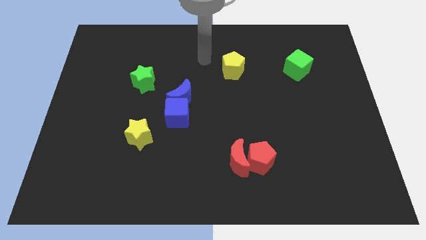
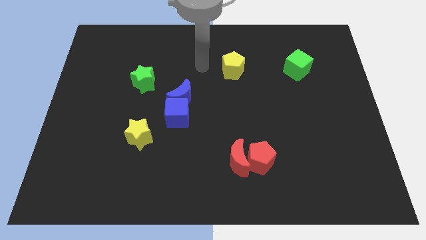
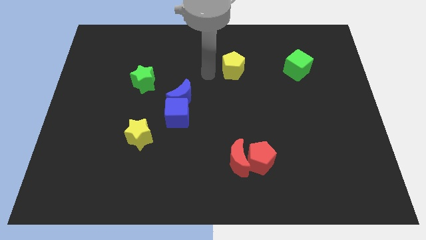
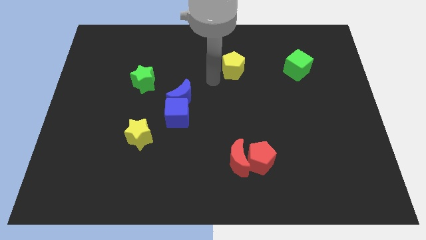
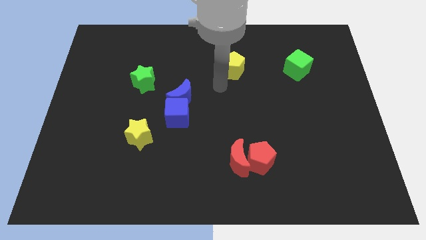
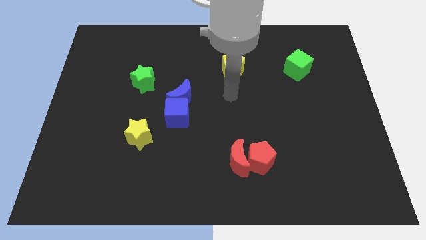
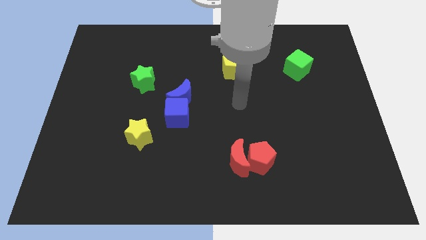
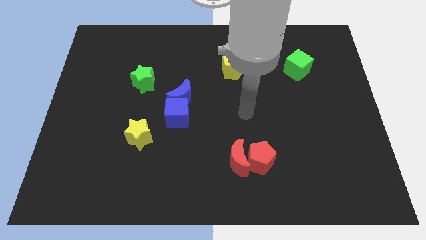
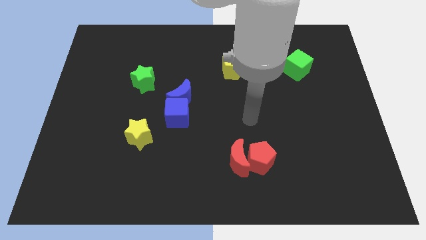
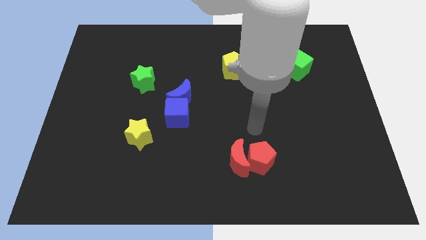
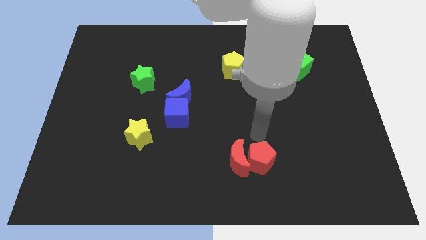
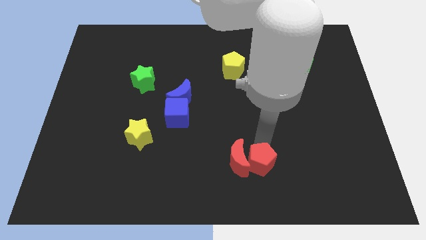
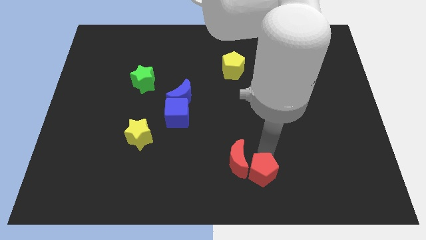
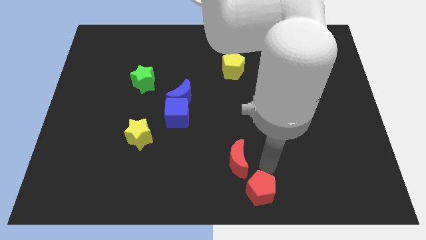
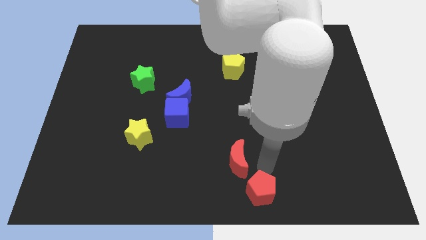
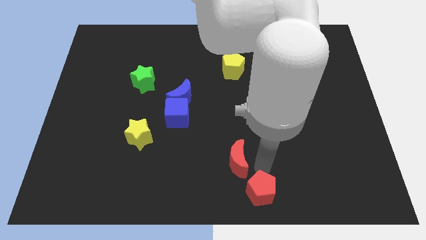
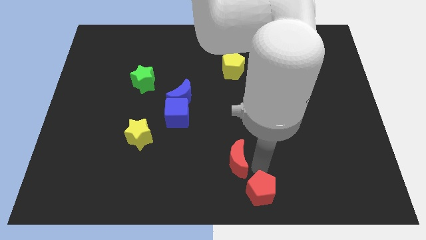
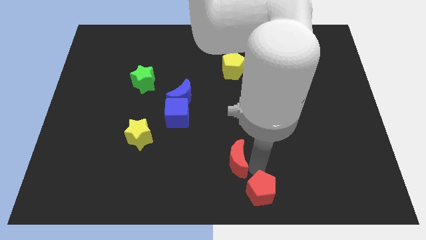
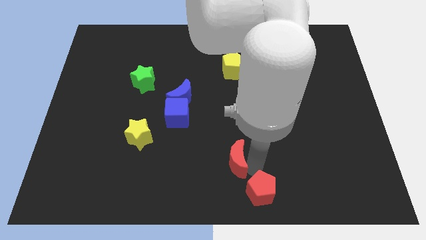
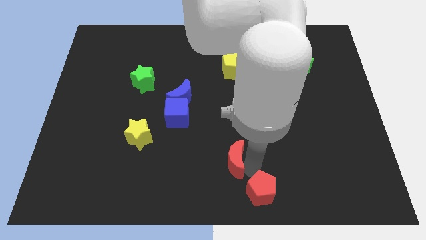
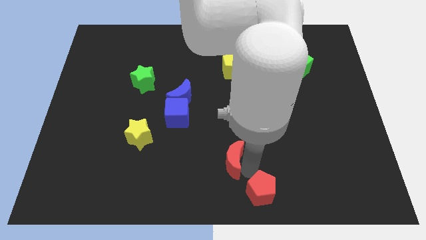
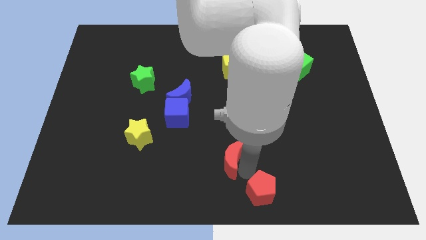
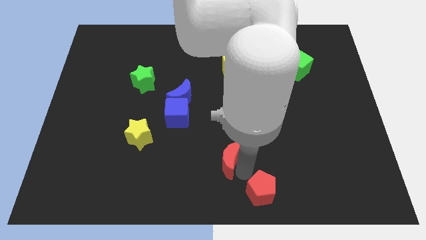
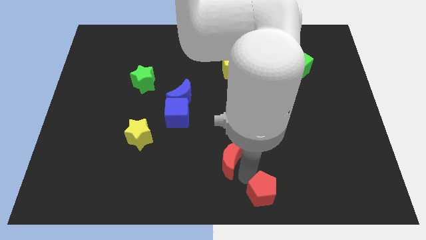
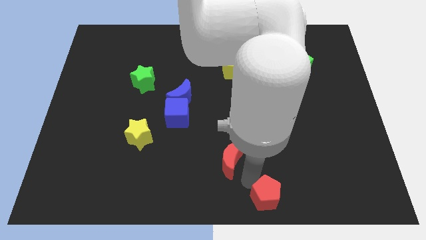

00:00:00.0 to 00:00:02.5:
move the red moon away from the red pentagon

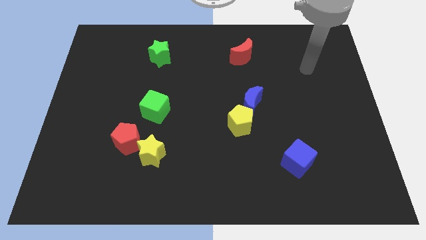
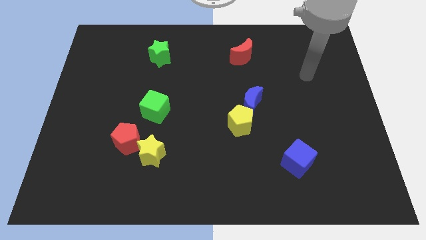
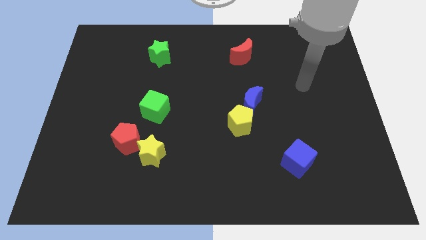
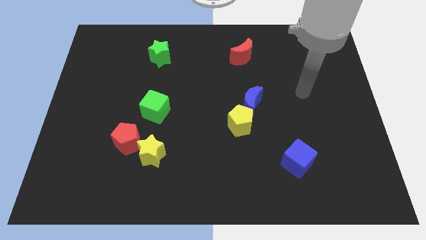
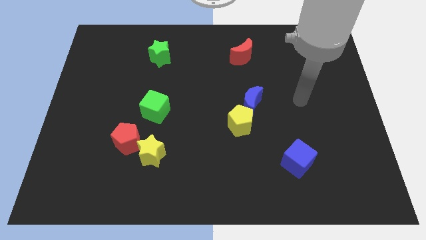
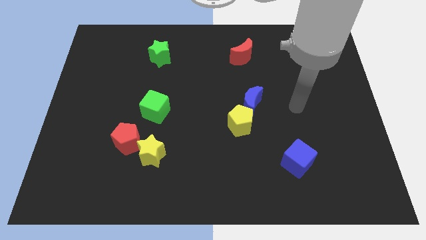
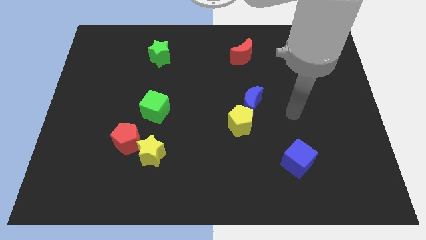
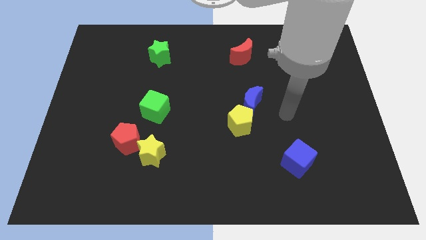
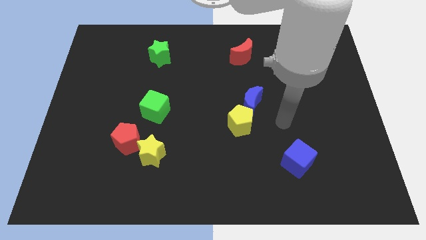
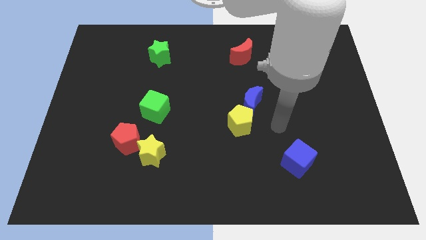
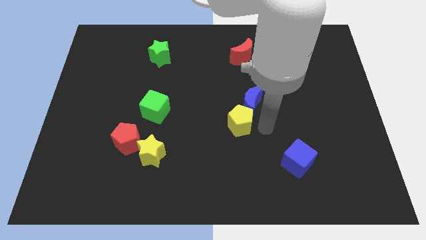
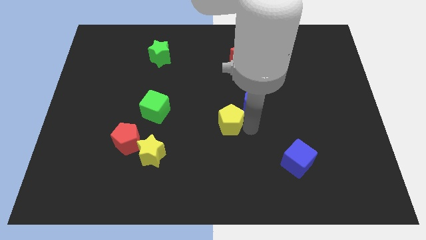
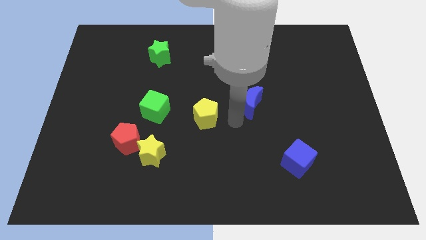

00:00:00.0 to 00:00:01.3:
separate the blue moon from the yellow pentagon

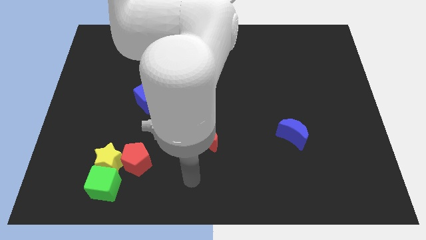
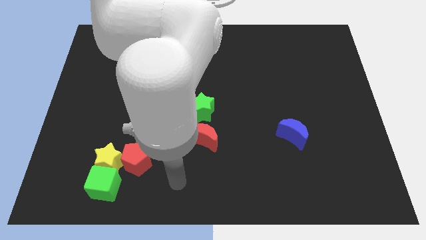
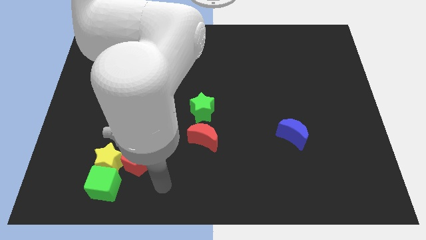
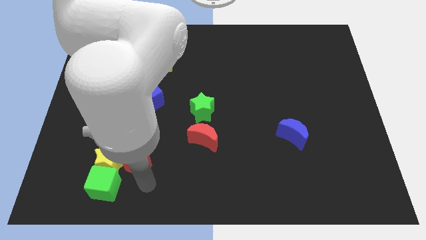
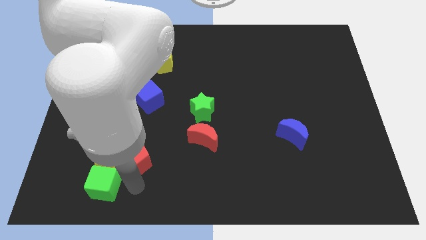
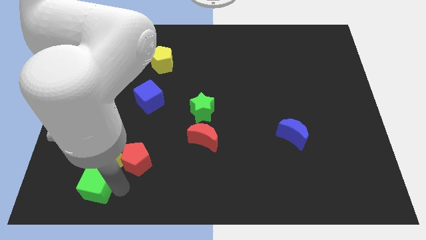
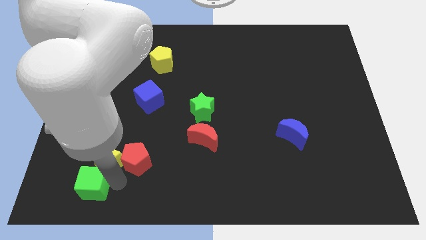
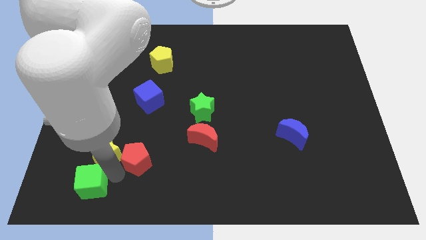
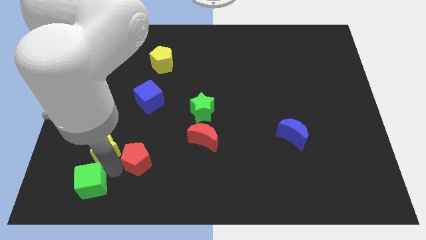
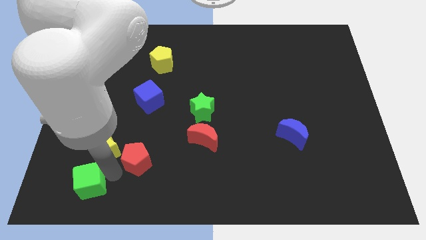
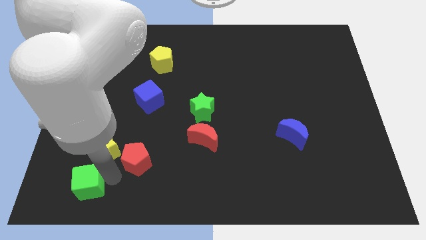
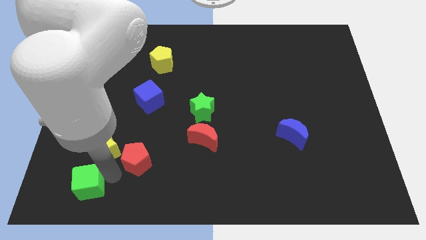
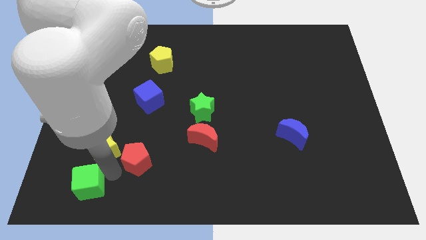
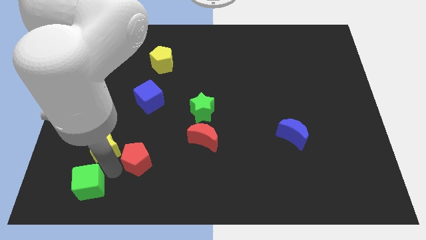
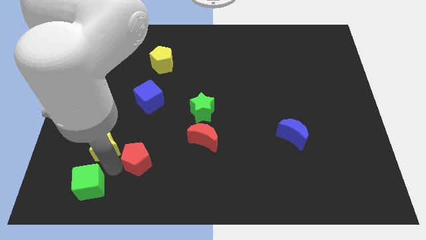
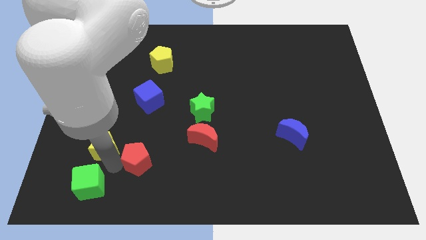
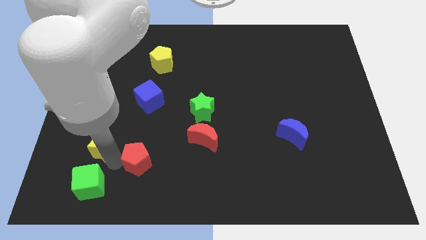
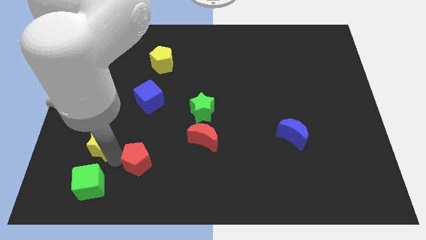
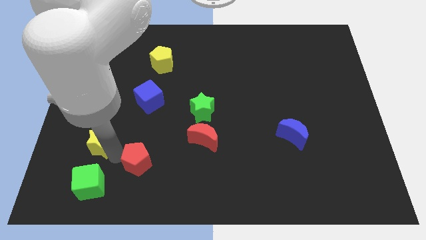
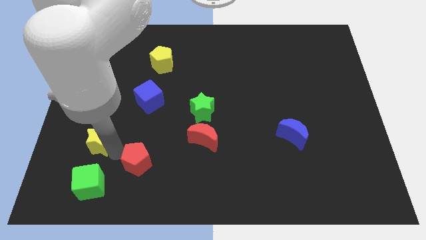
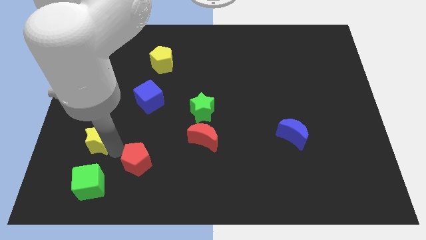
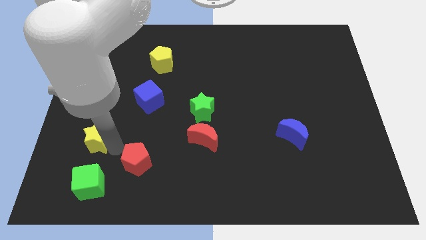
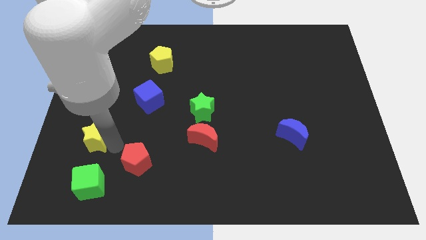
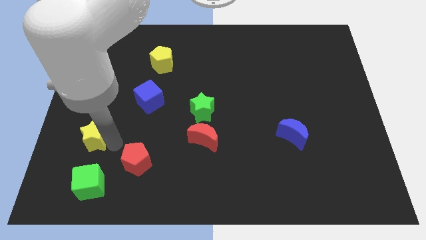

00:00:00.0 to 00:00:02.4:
move the yellow star away from the red pentagon and green cube

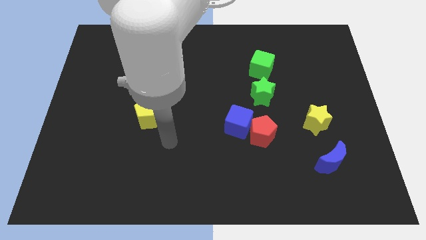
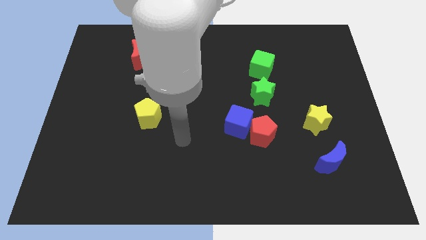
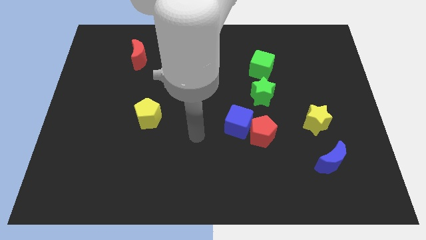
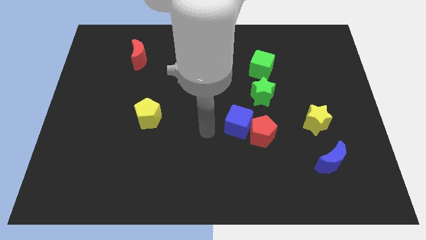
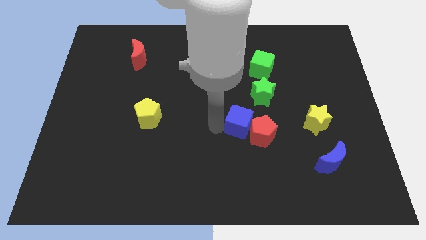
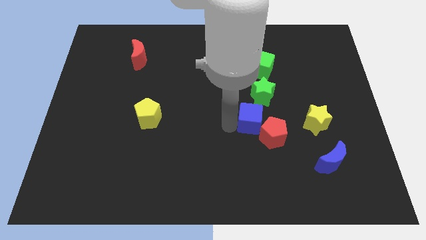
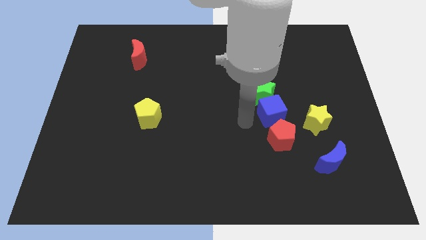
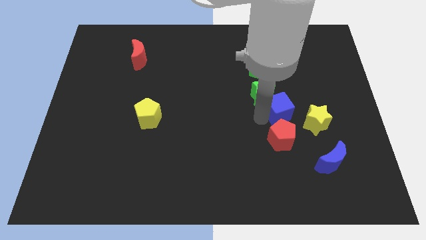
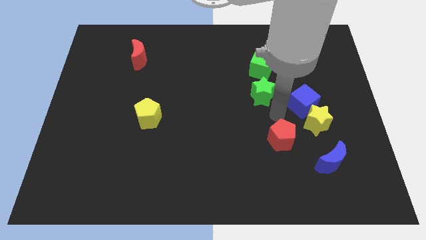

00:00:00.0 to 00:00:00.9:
pull the red pentagon apart from the blue cube

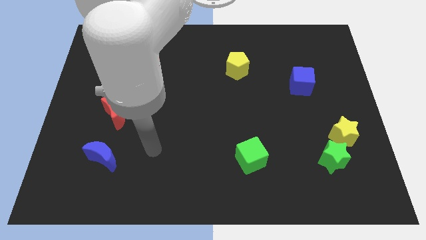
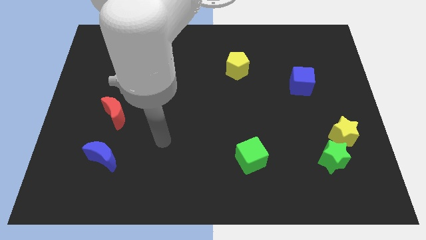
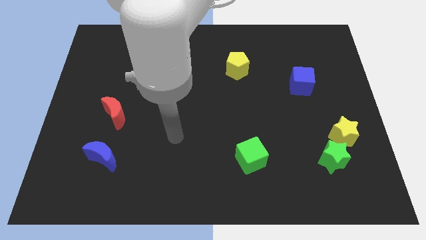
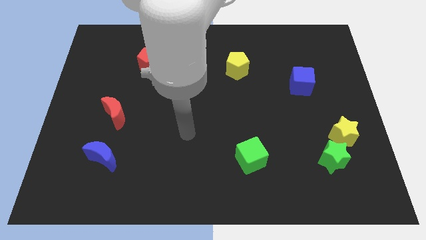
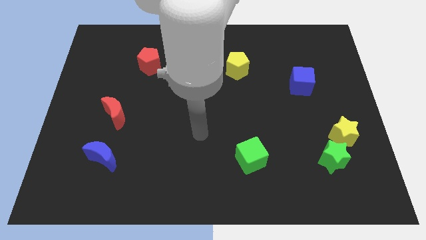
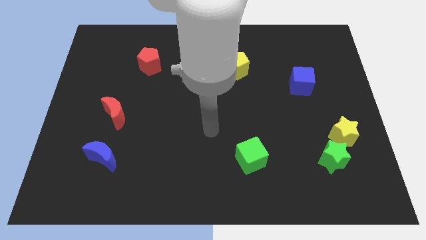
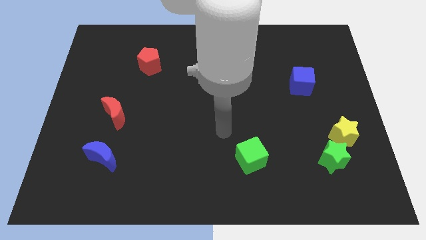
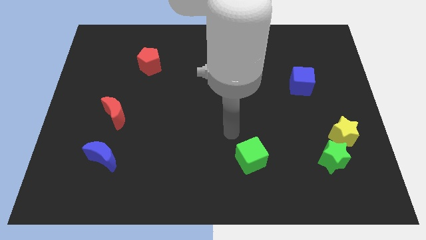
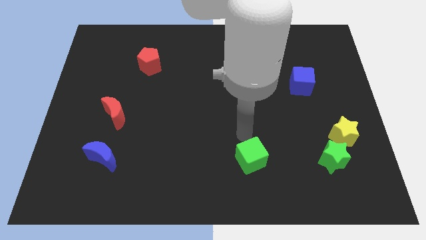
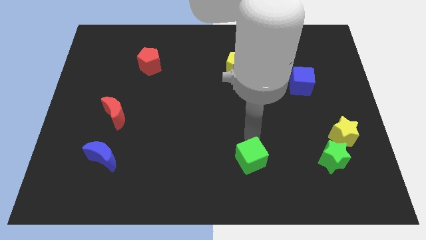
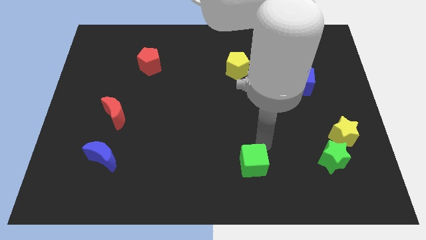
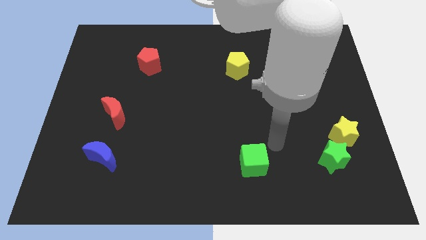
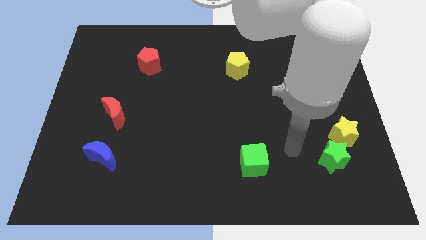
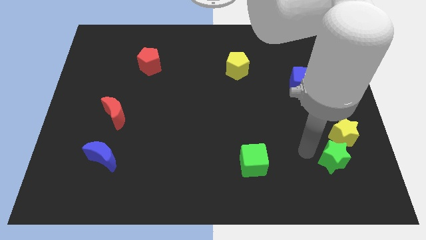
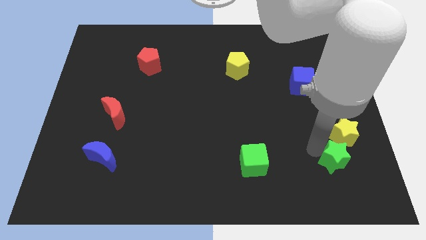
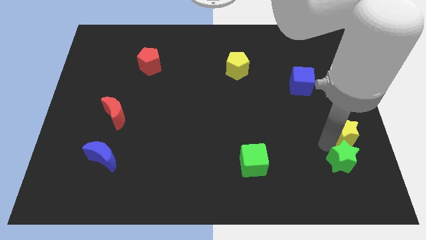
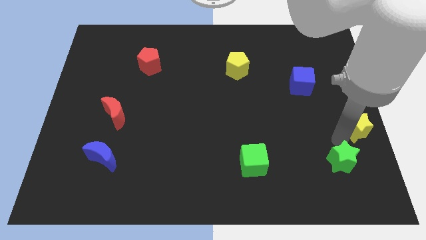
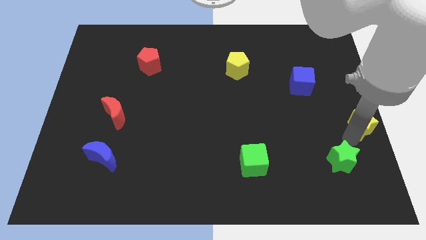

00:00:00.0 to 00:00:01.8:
separate the green star from the yellow star

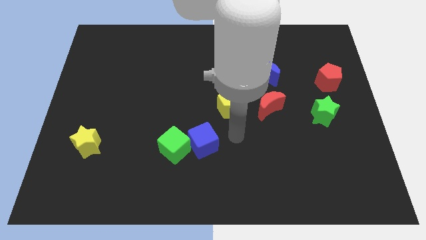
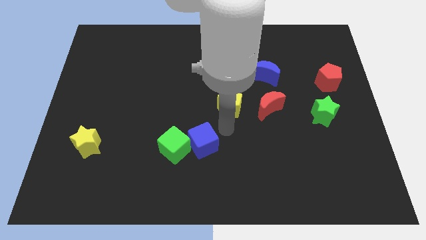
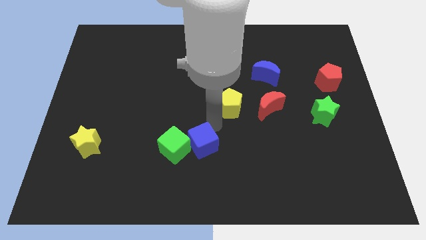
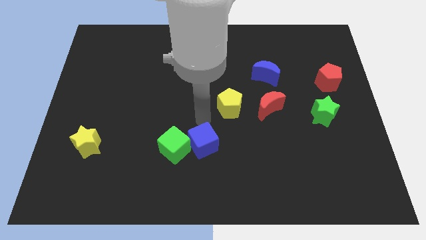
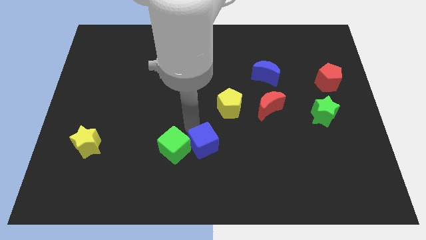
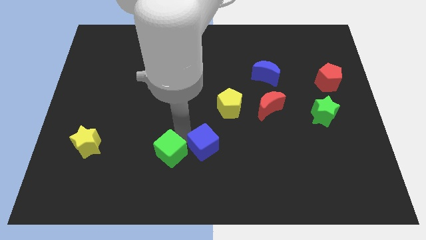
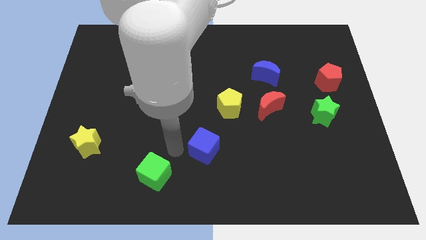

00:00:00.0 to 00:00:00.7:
separate the blue cube from the green cube
